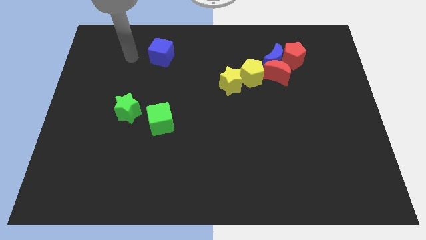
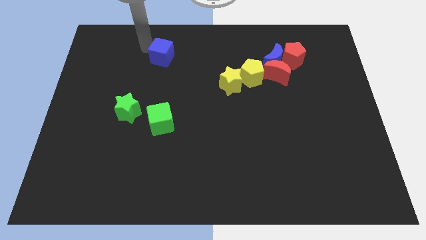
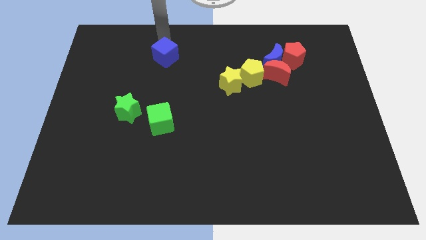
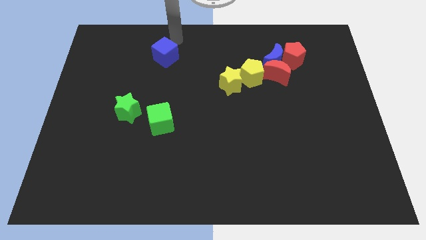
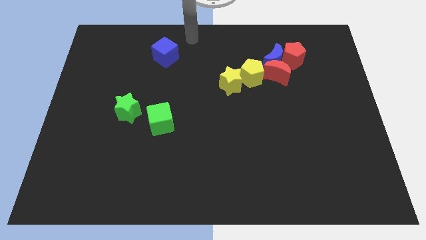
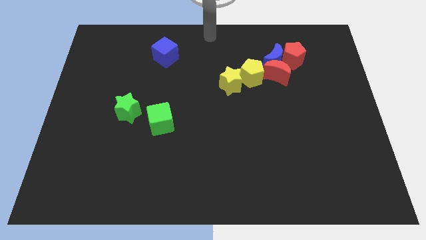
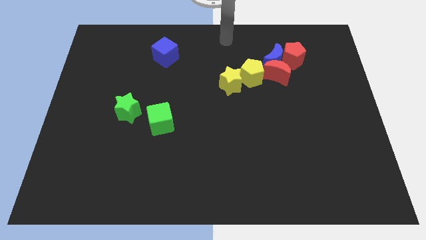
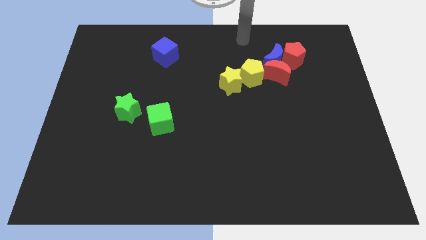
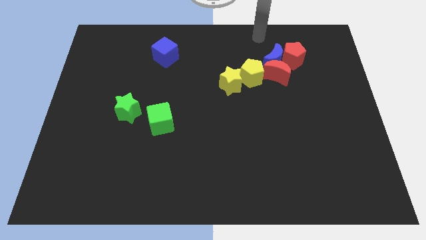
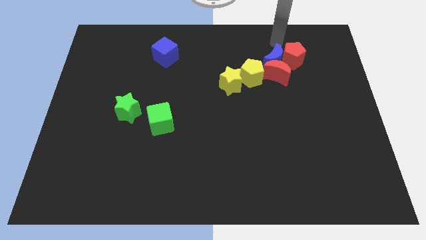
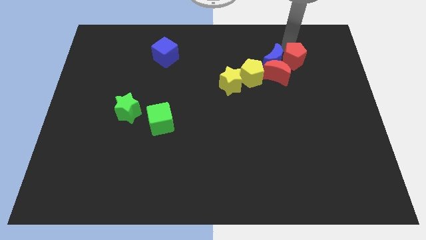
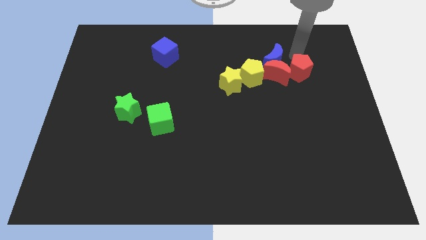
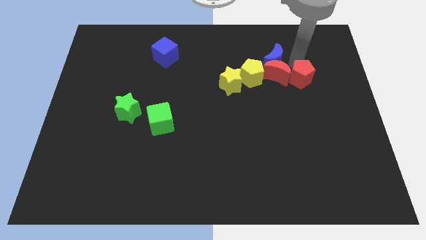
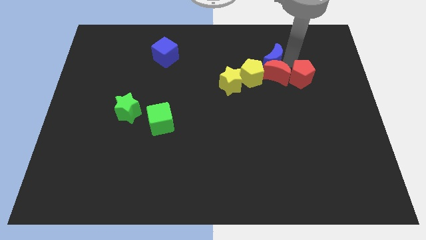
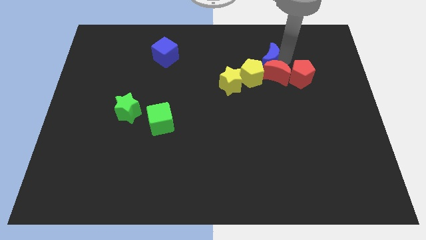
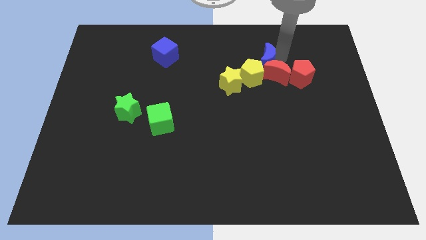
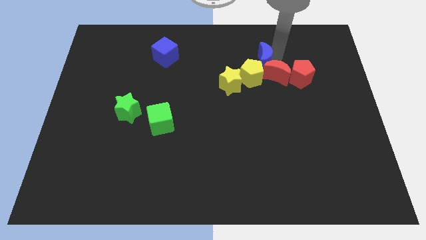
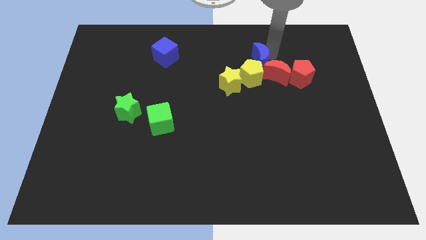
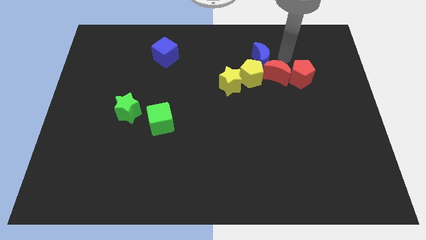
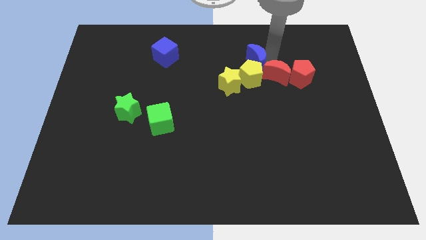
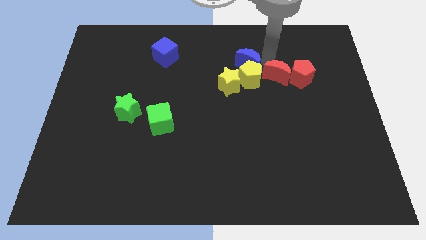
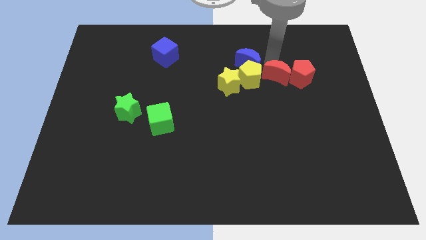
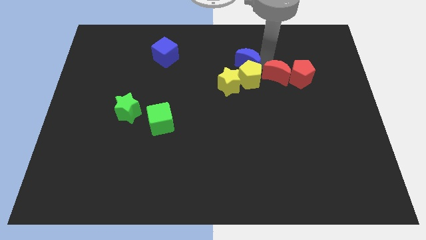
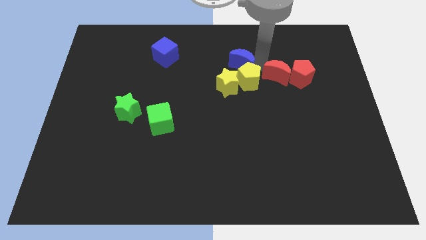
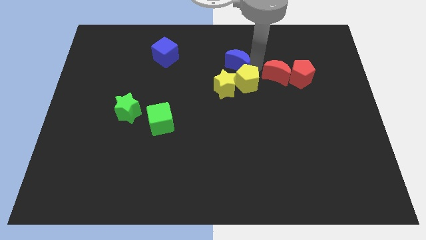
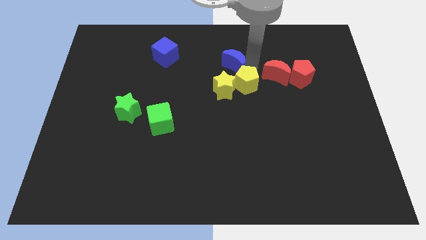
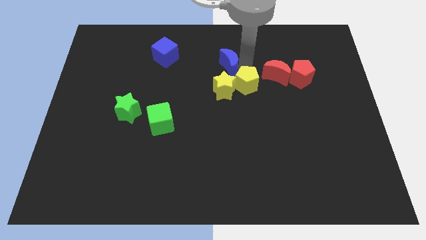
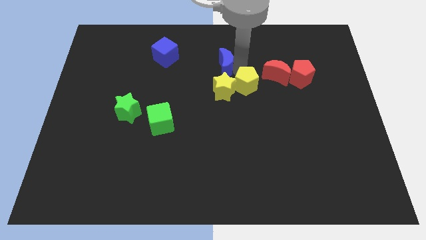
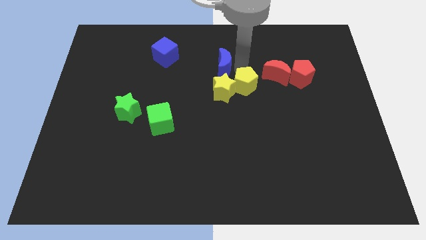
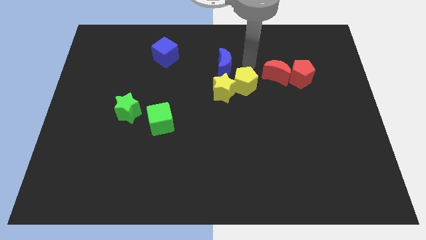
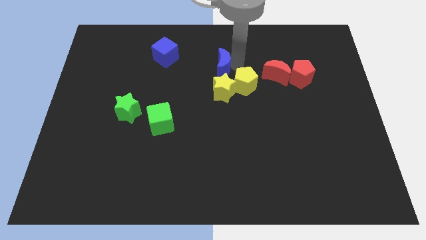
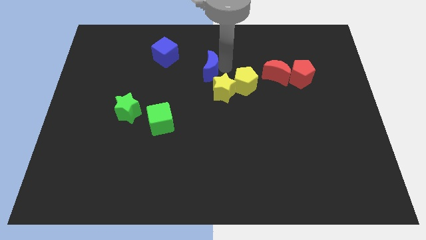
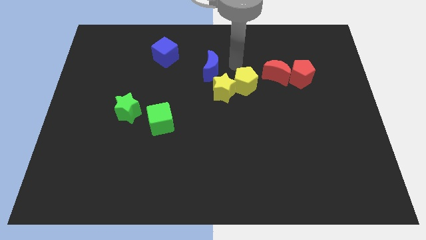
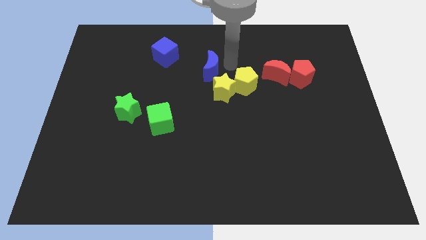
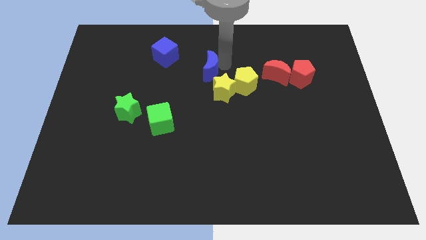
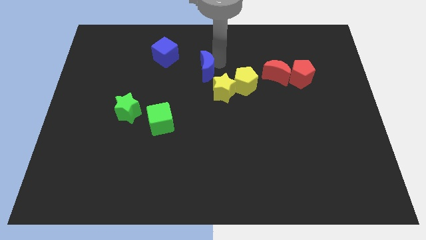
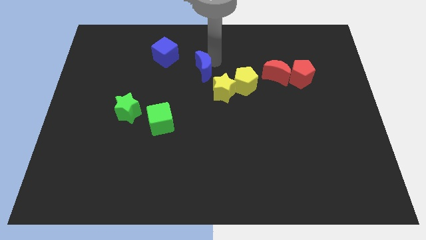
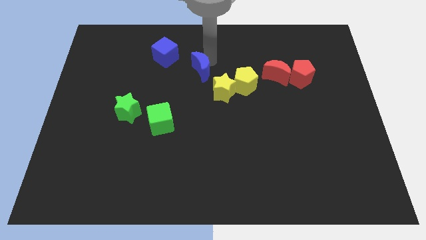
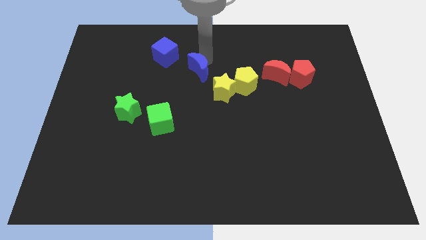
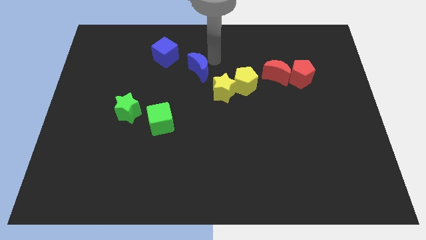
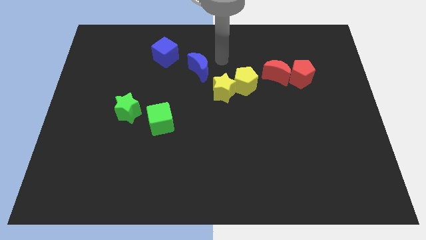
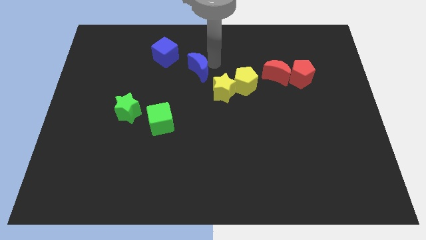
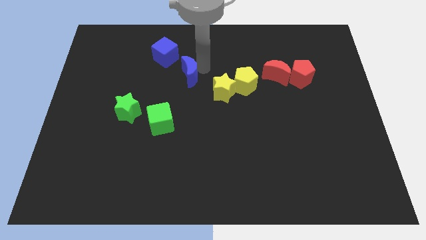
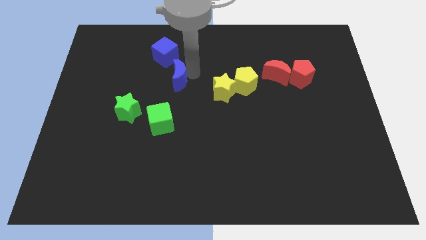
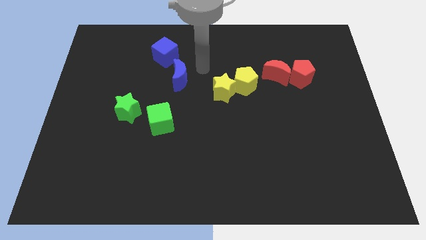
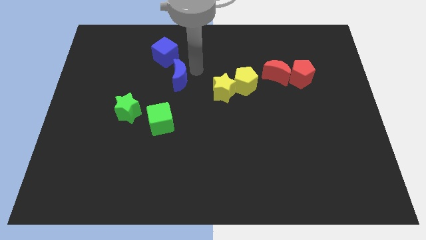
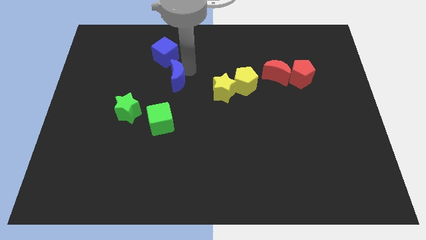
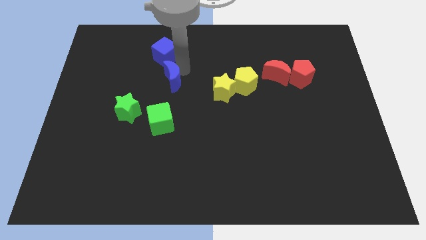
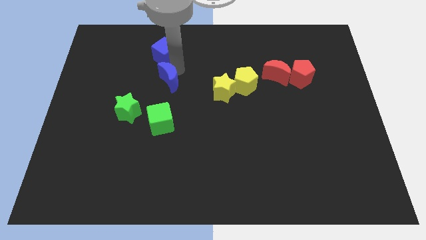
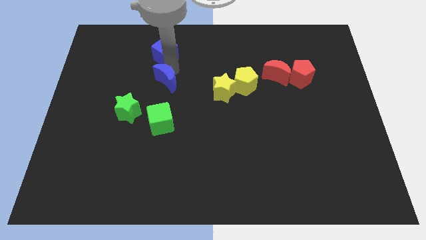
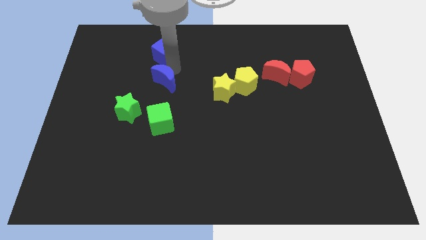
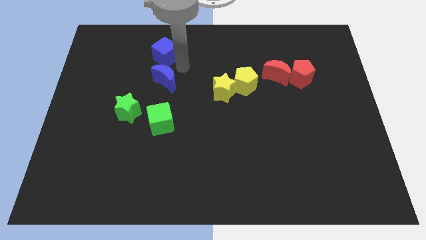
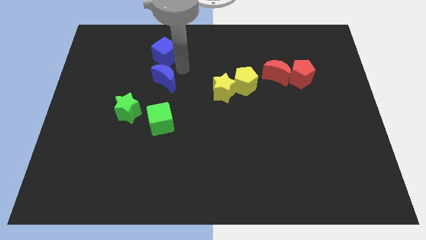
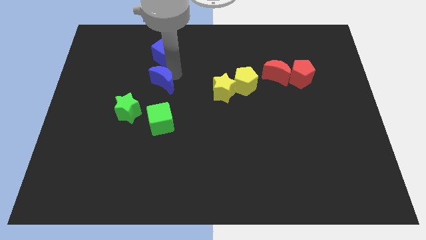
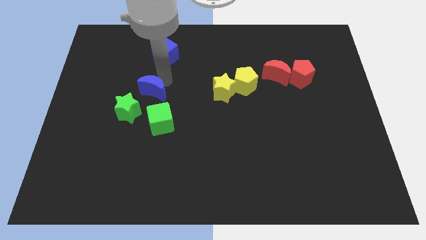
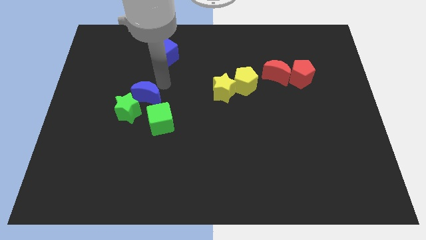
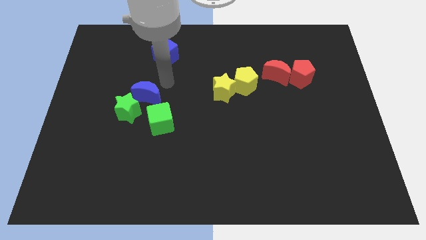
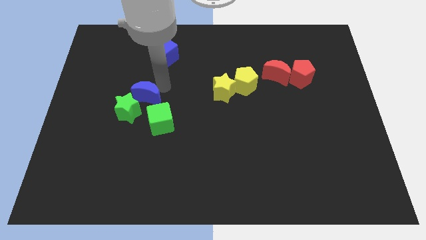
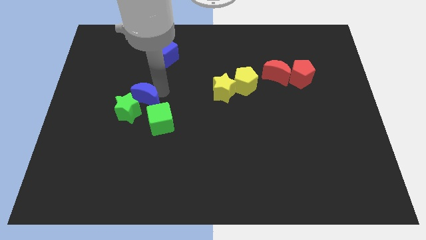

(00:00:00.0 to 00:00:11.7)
put the blue moon close to the green star

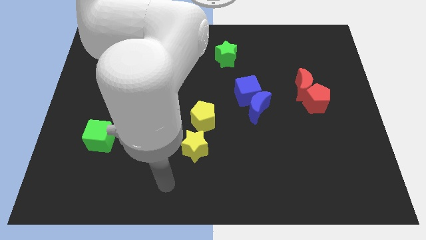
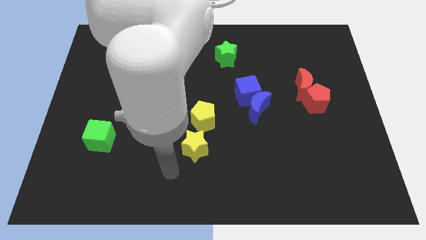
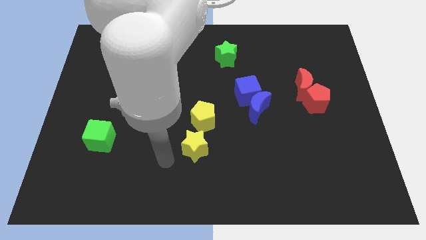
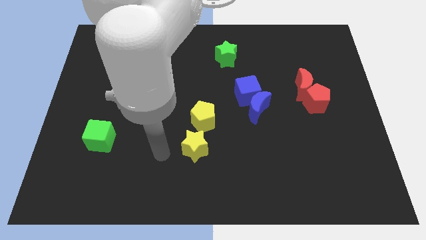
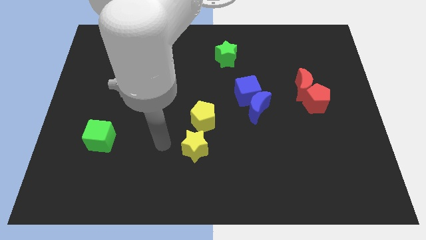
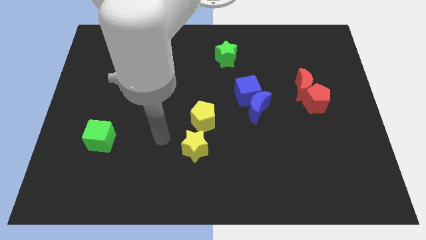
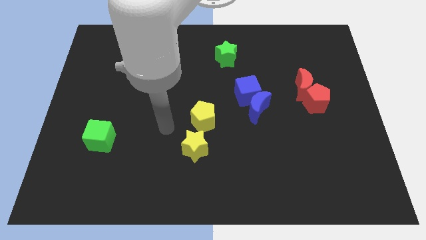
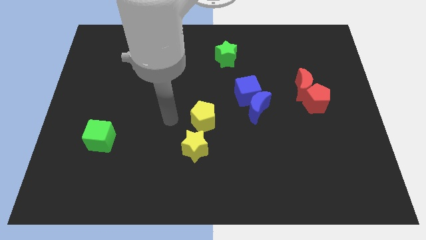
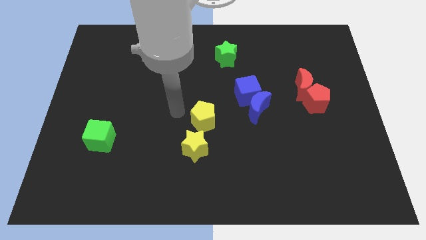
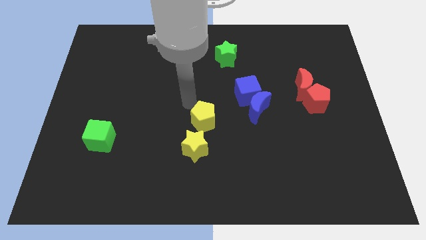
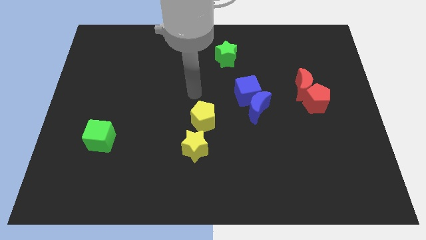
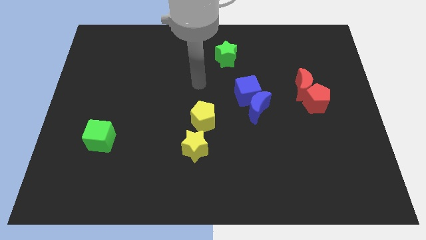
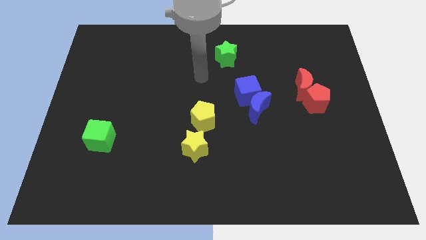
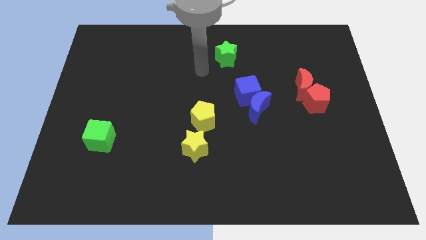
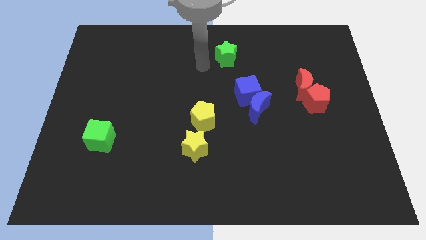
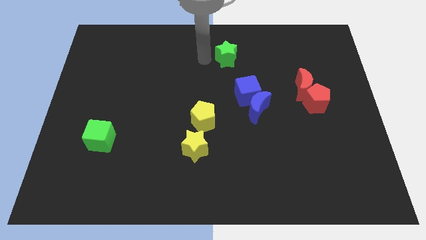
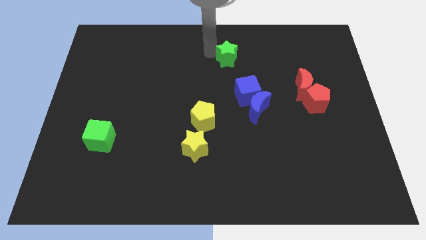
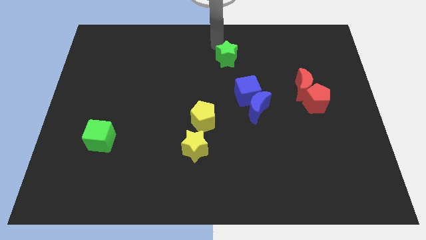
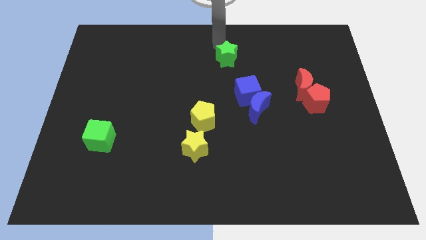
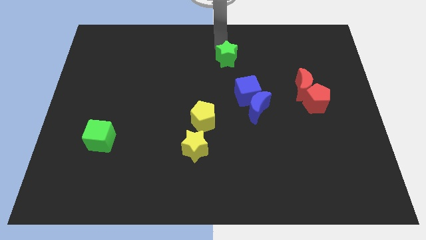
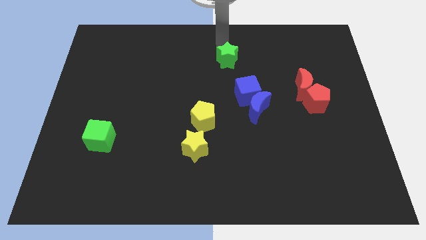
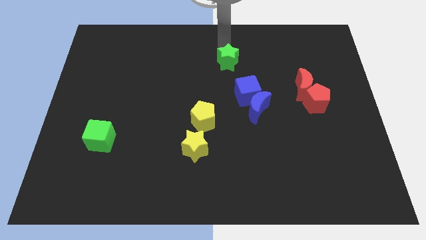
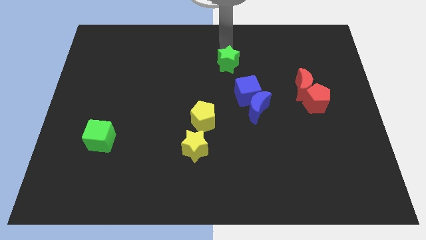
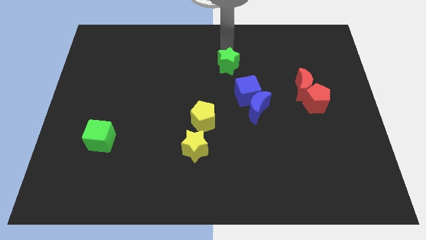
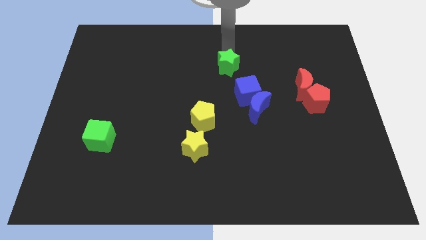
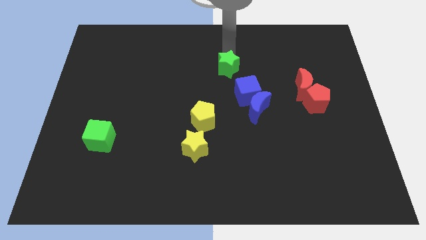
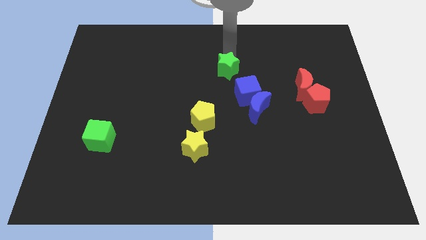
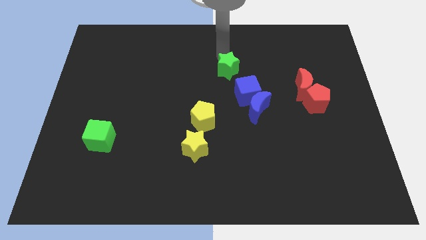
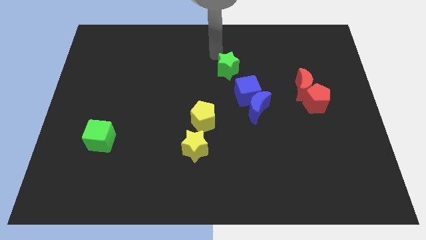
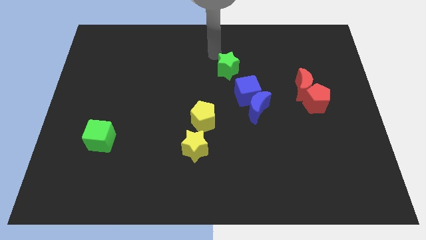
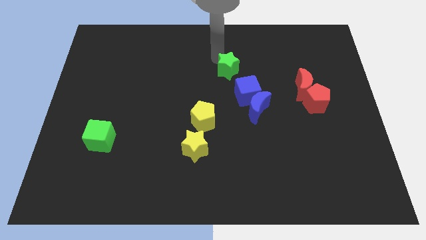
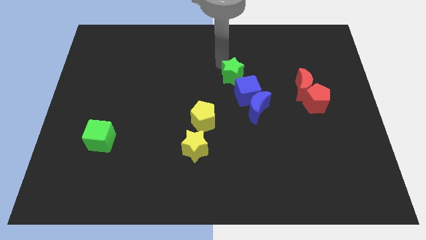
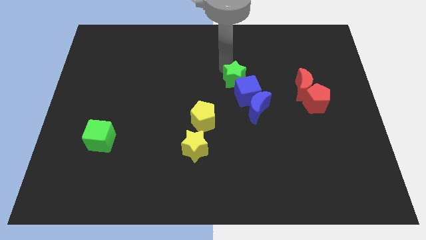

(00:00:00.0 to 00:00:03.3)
push the green star next to the blue cube
